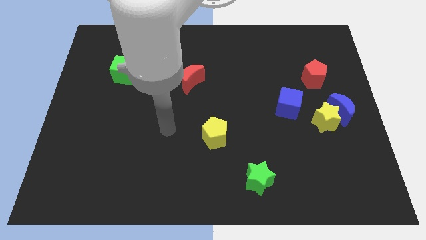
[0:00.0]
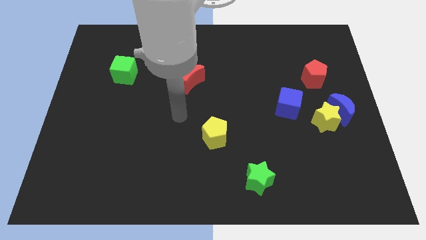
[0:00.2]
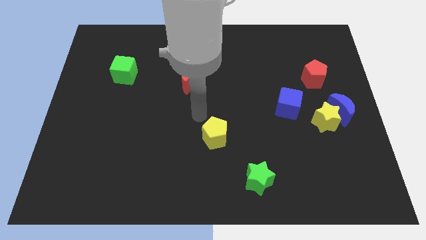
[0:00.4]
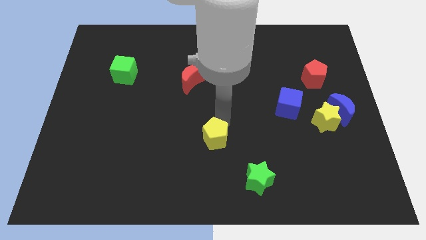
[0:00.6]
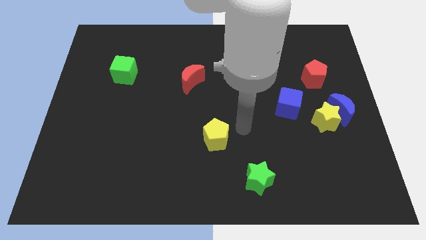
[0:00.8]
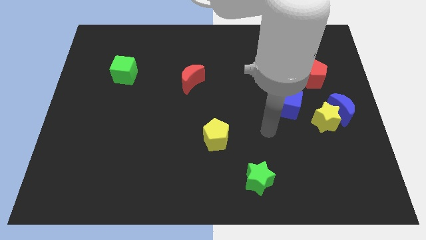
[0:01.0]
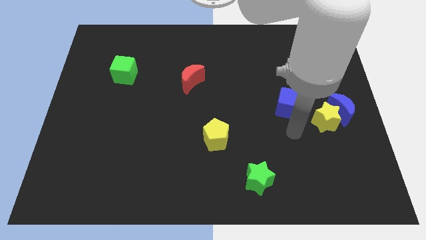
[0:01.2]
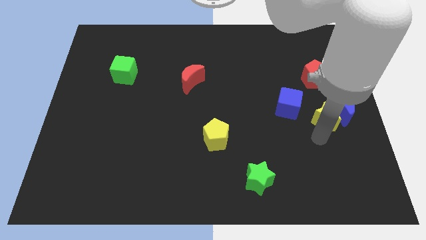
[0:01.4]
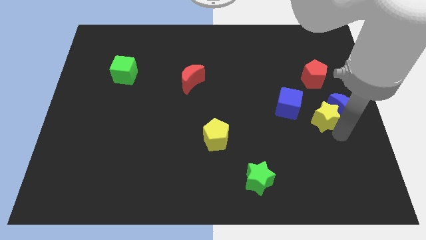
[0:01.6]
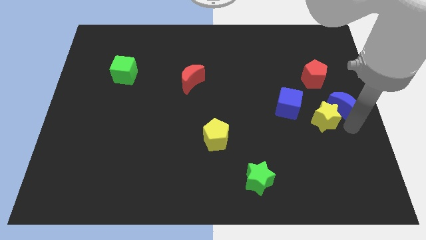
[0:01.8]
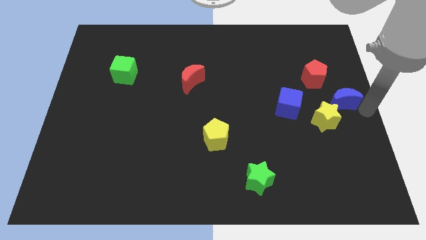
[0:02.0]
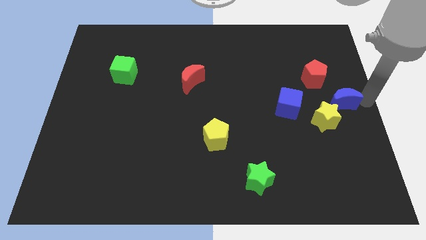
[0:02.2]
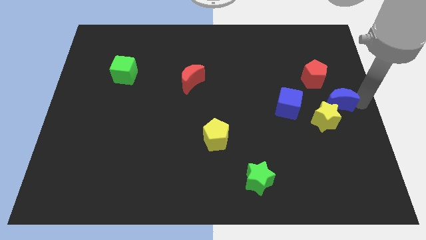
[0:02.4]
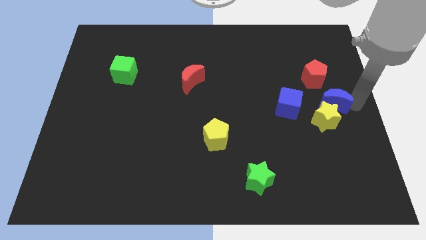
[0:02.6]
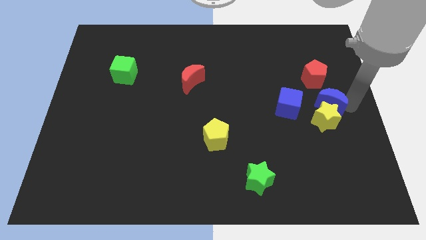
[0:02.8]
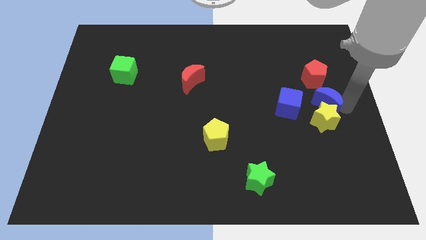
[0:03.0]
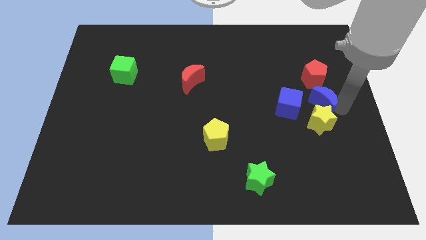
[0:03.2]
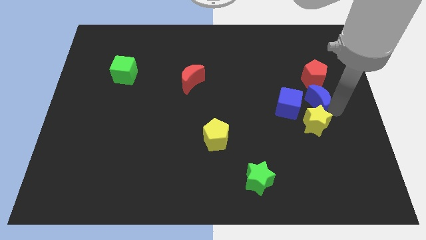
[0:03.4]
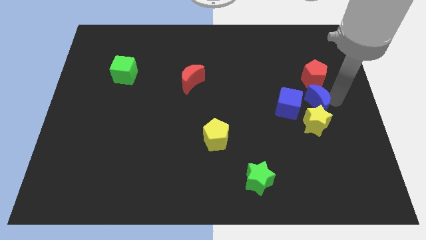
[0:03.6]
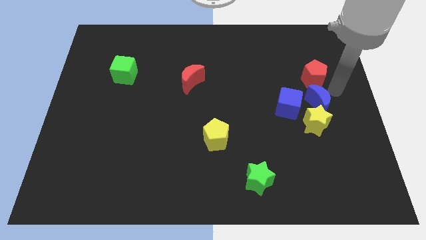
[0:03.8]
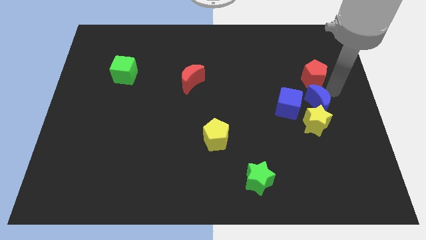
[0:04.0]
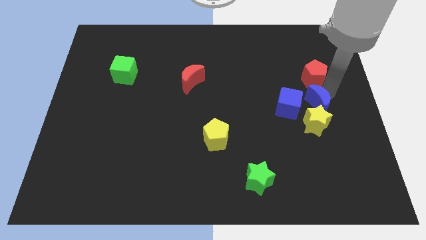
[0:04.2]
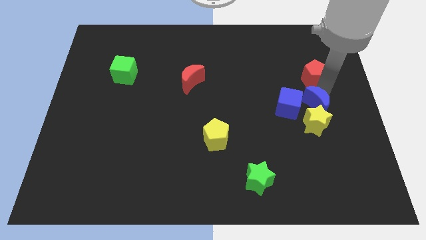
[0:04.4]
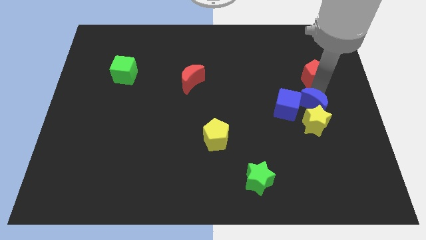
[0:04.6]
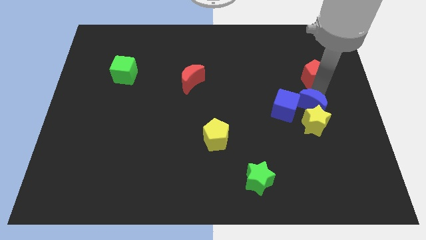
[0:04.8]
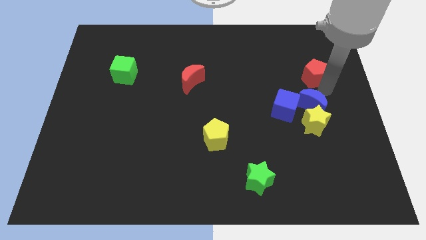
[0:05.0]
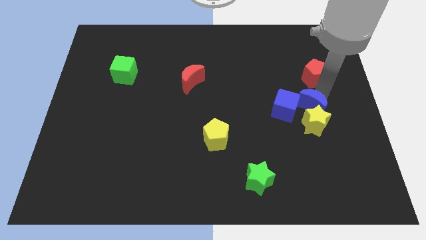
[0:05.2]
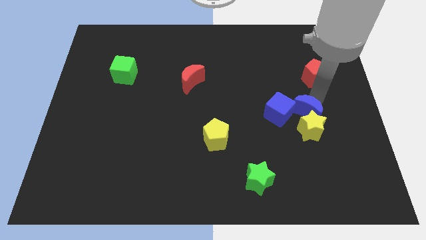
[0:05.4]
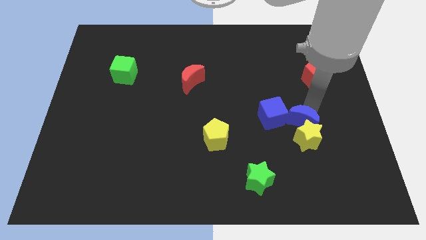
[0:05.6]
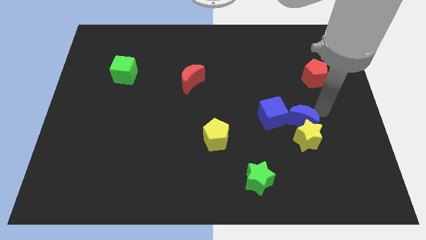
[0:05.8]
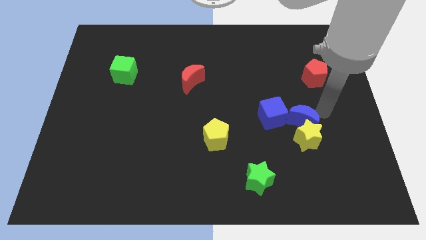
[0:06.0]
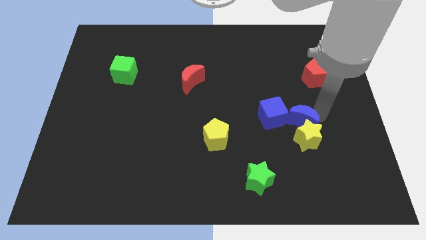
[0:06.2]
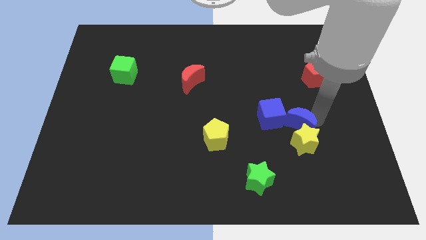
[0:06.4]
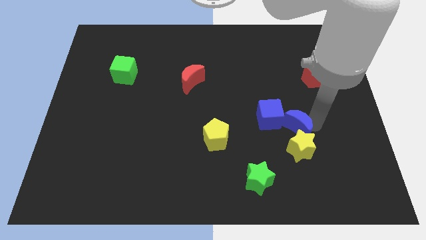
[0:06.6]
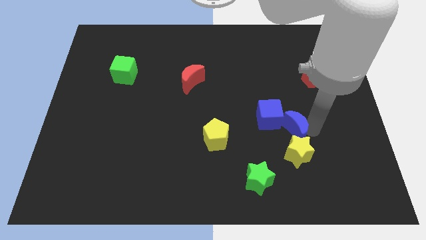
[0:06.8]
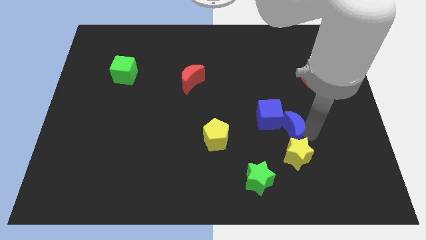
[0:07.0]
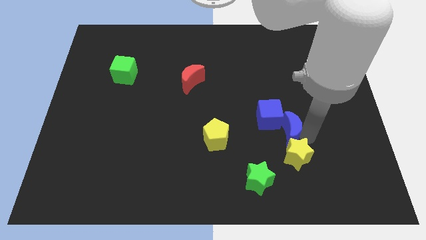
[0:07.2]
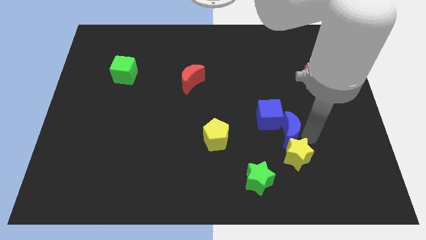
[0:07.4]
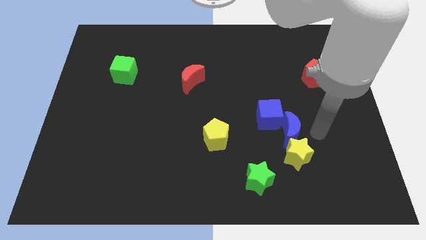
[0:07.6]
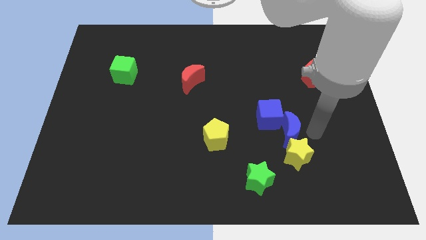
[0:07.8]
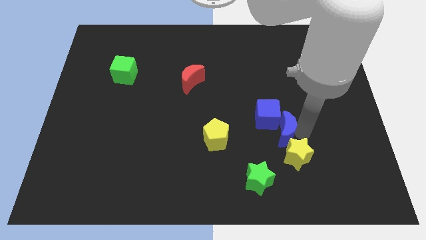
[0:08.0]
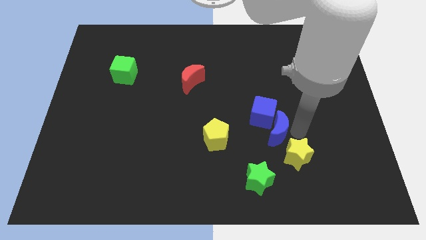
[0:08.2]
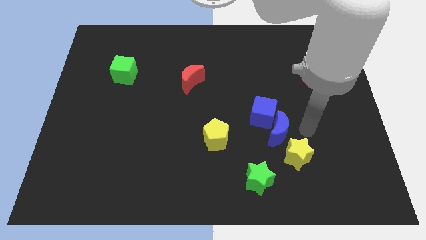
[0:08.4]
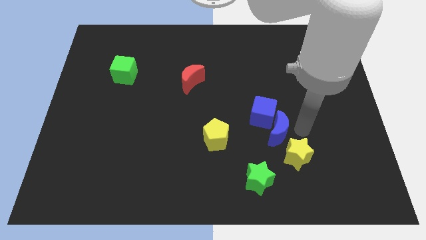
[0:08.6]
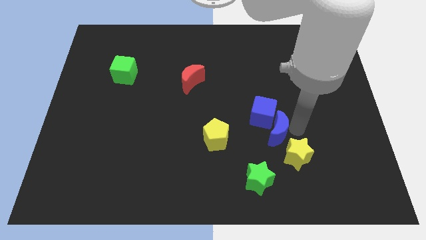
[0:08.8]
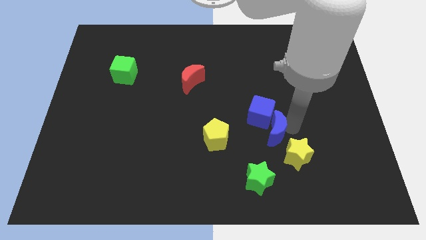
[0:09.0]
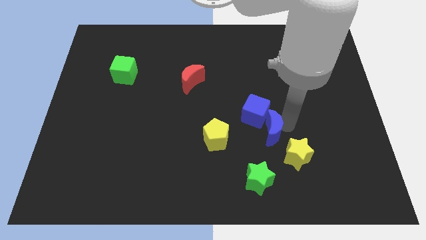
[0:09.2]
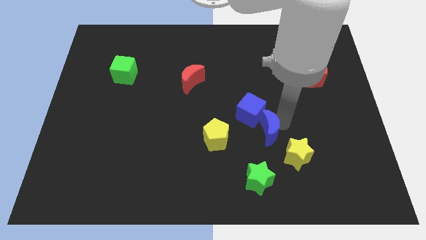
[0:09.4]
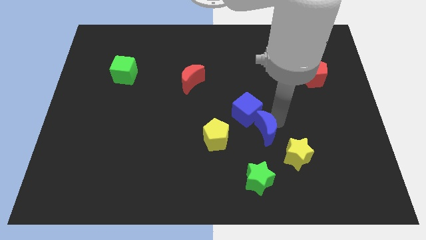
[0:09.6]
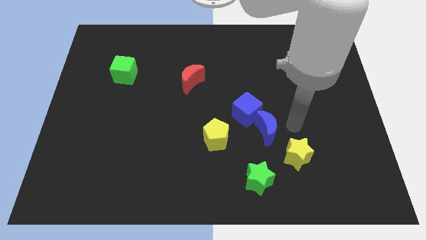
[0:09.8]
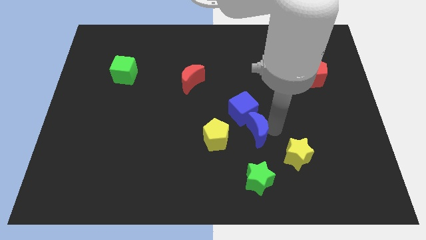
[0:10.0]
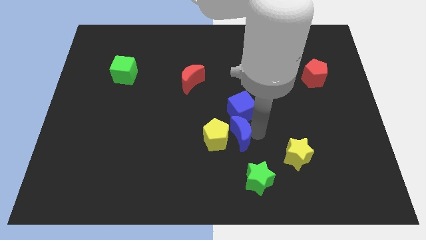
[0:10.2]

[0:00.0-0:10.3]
put the blue moon towards the yellow pentagon

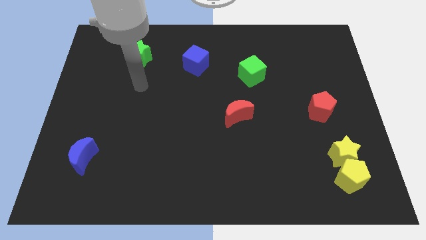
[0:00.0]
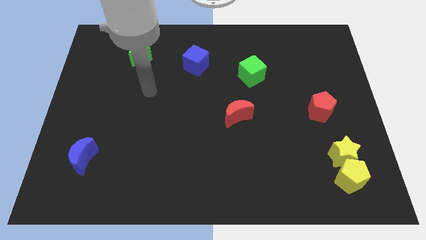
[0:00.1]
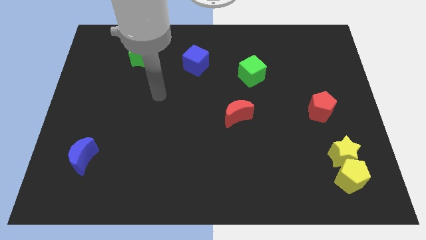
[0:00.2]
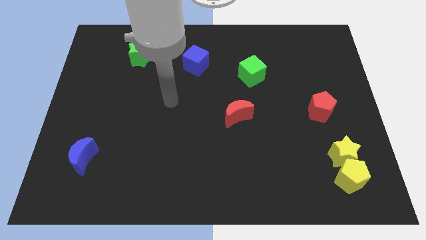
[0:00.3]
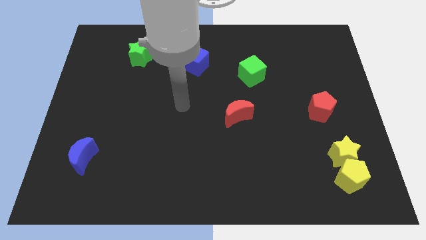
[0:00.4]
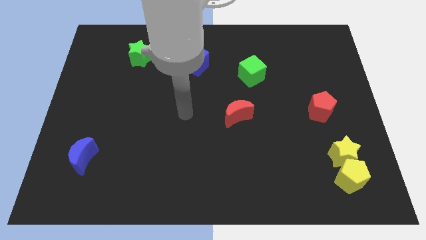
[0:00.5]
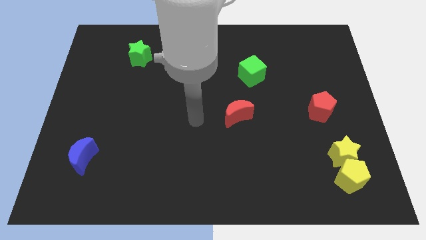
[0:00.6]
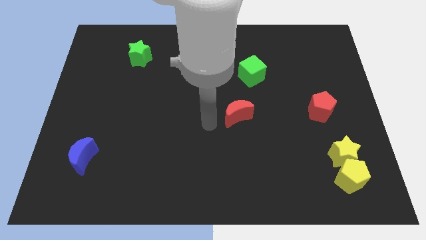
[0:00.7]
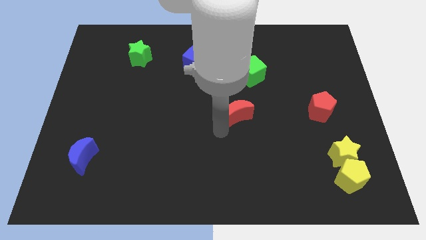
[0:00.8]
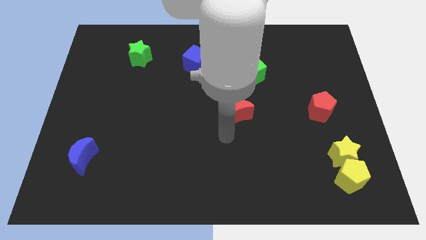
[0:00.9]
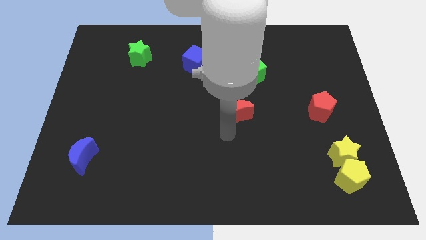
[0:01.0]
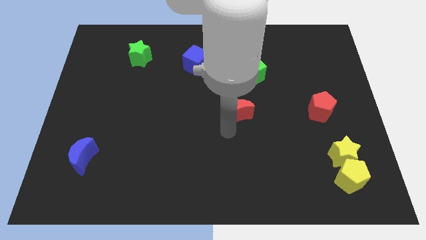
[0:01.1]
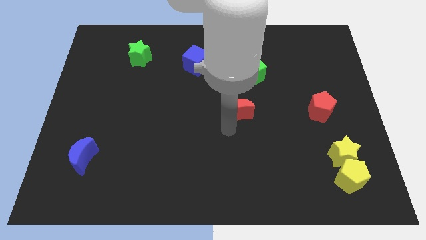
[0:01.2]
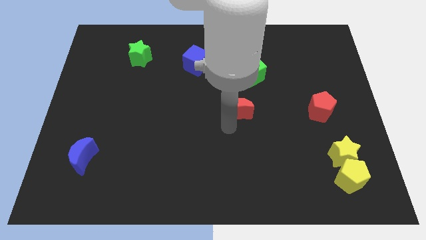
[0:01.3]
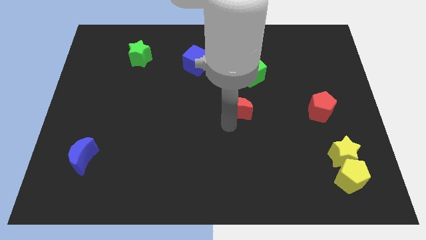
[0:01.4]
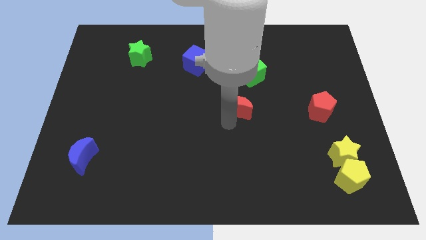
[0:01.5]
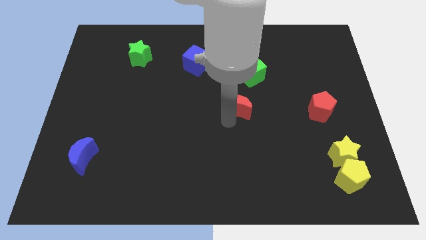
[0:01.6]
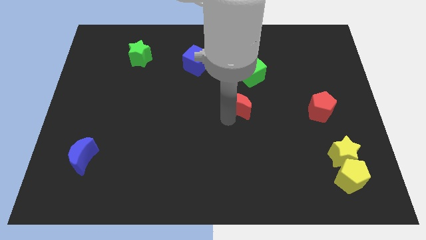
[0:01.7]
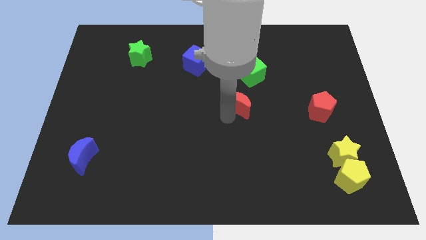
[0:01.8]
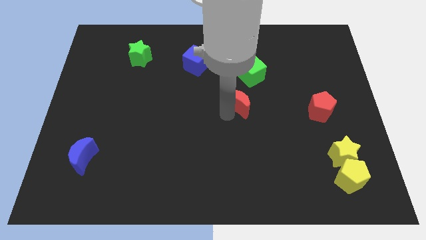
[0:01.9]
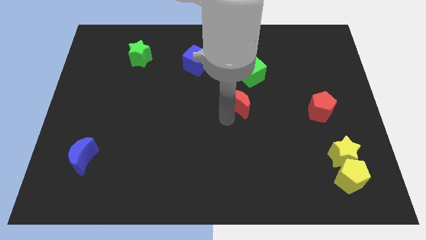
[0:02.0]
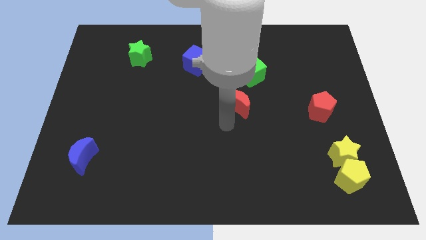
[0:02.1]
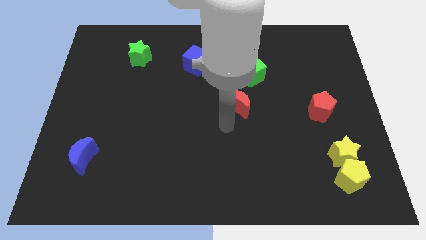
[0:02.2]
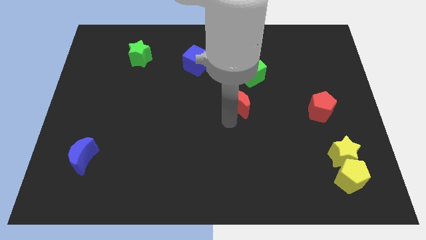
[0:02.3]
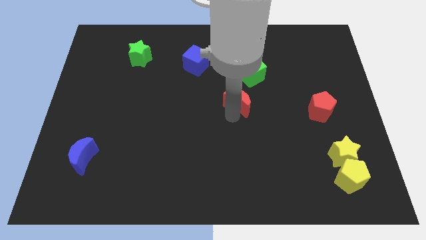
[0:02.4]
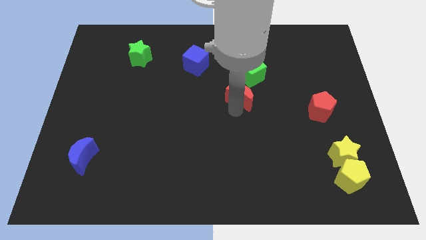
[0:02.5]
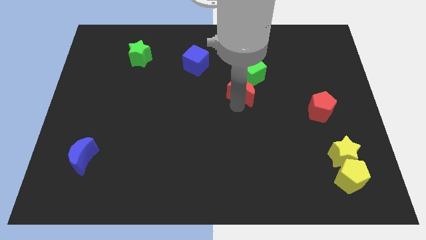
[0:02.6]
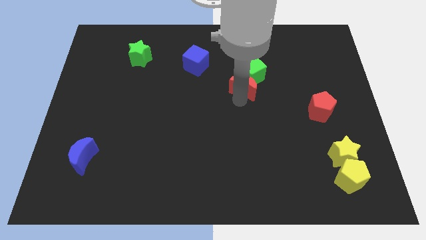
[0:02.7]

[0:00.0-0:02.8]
push the red moon to the green cube
